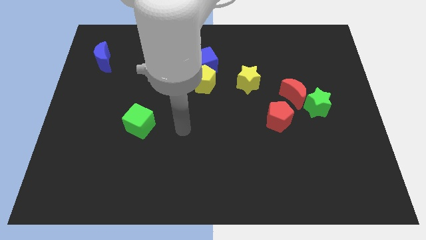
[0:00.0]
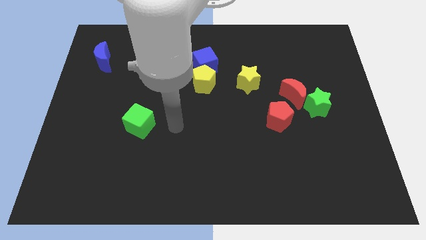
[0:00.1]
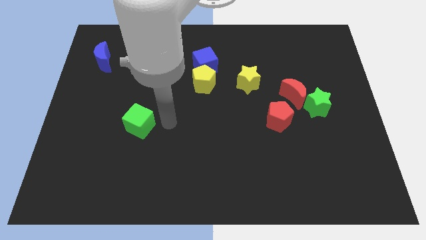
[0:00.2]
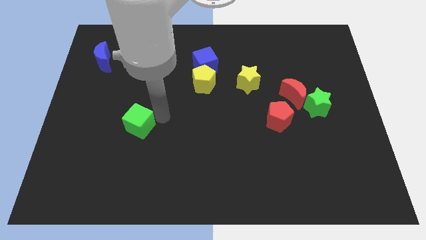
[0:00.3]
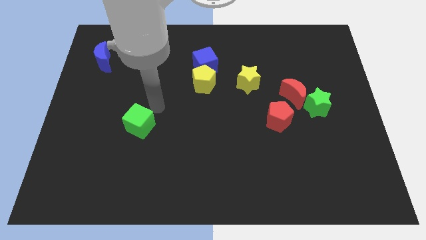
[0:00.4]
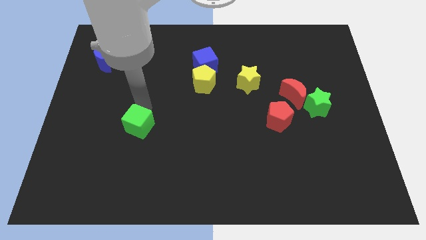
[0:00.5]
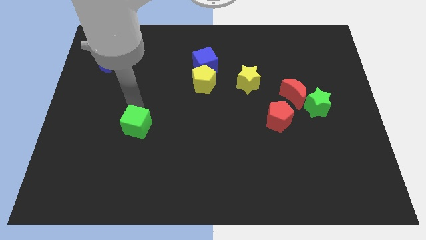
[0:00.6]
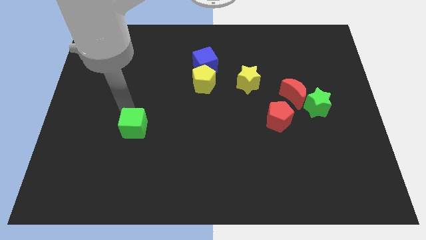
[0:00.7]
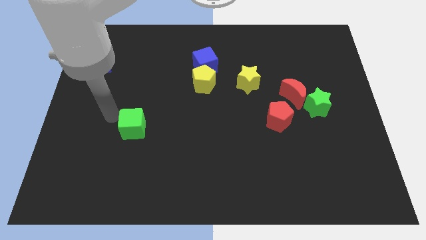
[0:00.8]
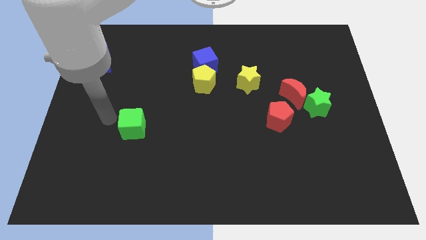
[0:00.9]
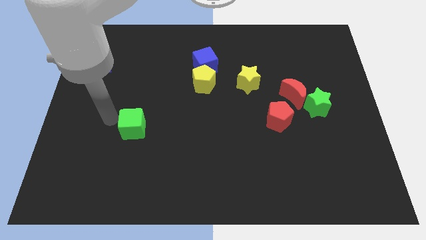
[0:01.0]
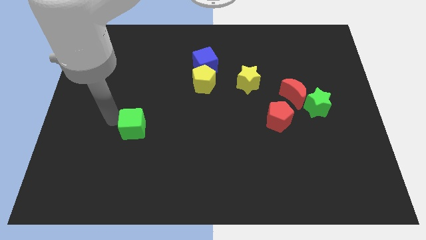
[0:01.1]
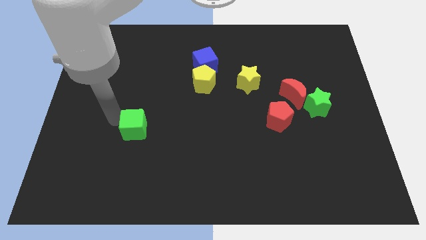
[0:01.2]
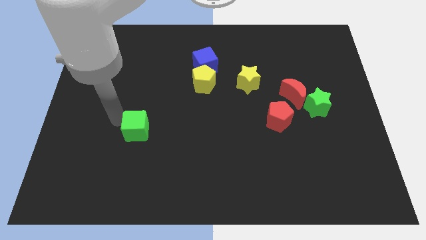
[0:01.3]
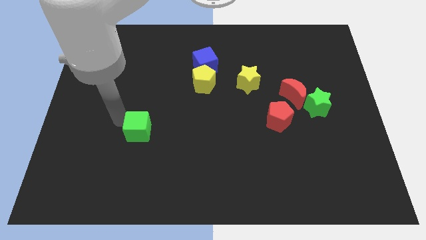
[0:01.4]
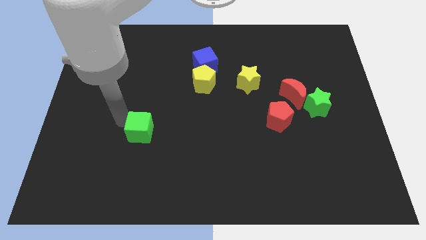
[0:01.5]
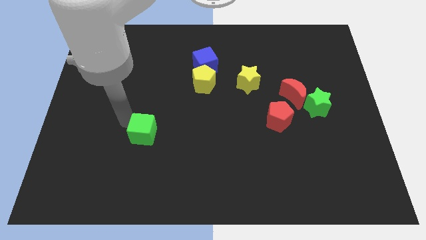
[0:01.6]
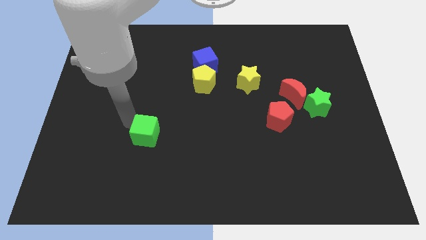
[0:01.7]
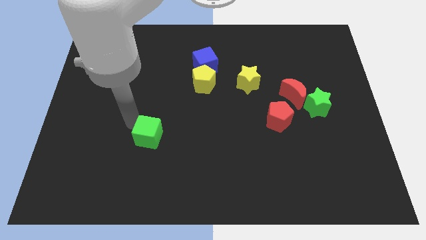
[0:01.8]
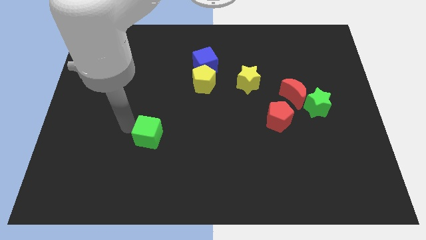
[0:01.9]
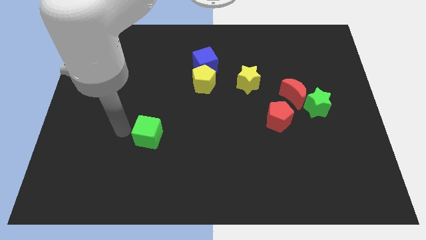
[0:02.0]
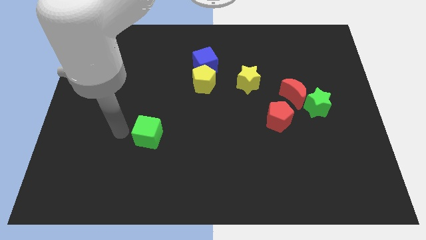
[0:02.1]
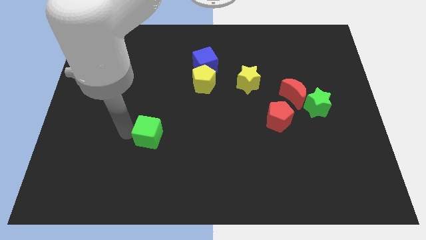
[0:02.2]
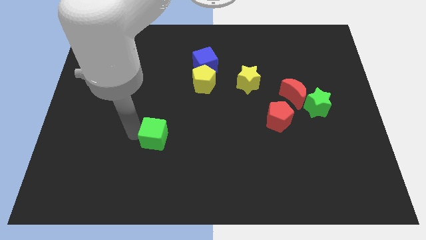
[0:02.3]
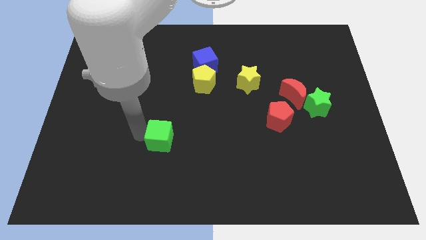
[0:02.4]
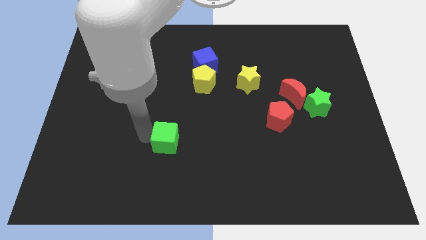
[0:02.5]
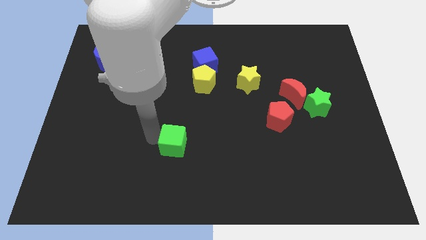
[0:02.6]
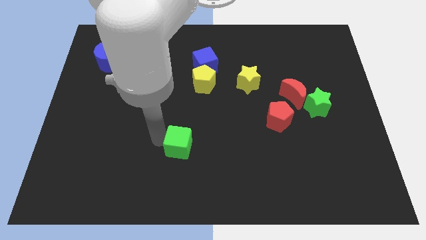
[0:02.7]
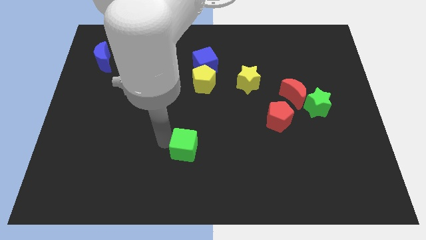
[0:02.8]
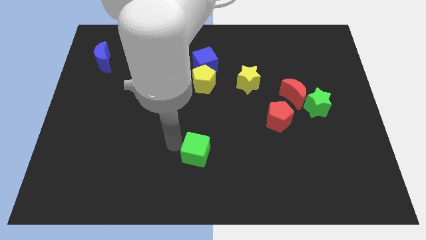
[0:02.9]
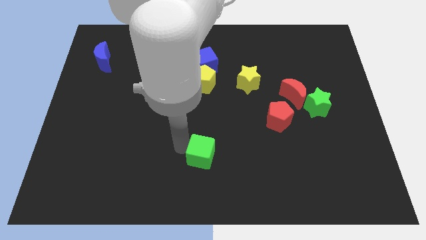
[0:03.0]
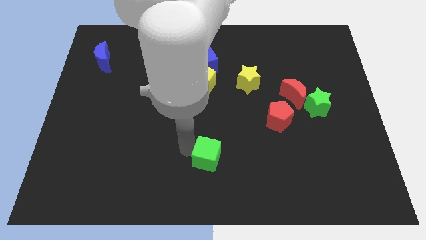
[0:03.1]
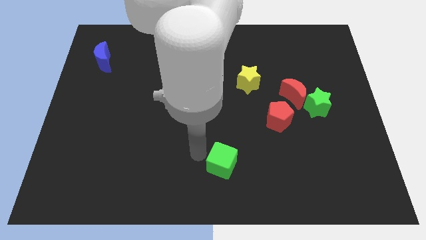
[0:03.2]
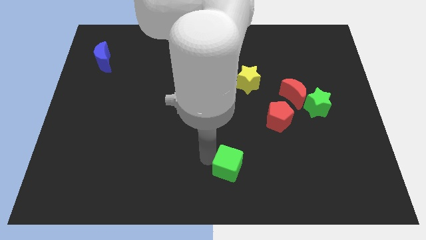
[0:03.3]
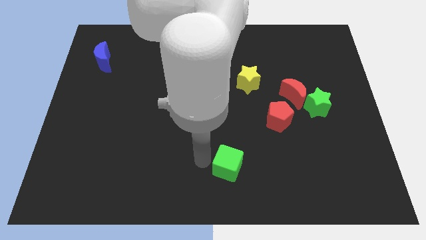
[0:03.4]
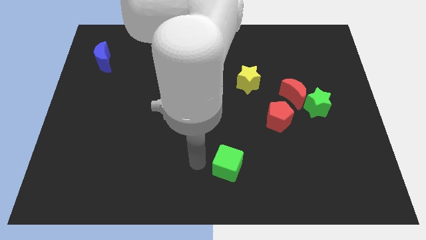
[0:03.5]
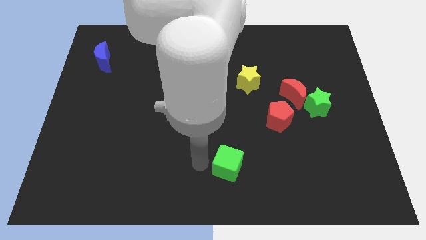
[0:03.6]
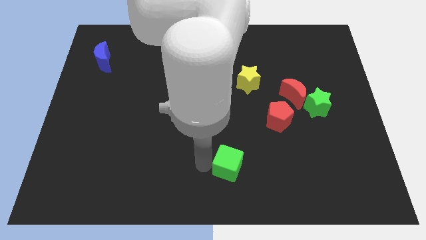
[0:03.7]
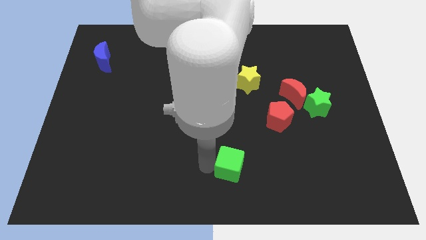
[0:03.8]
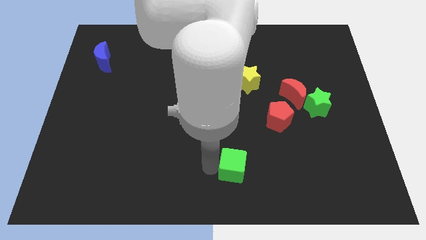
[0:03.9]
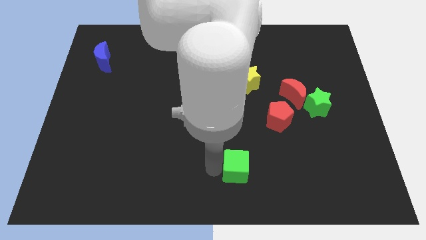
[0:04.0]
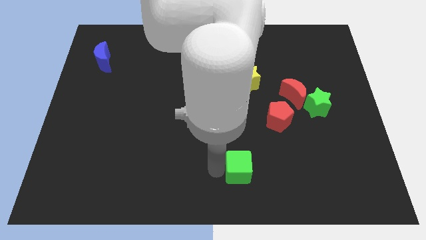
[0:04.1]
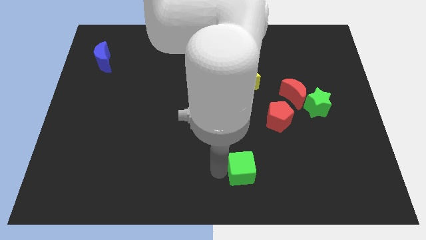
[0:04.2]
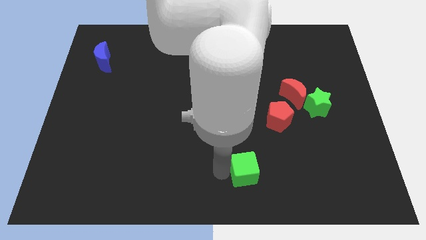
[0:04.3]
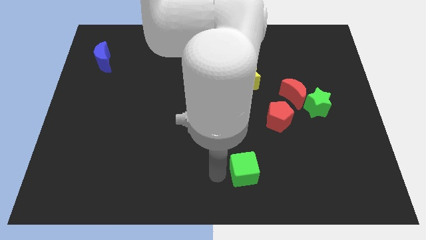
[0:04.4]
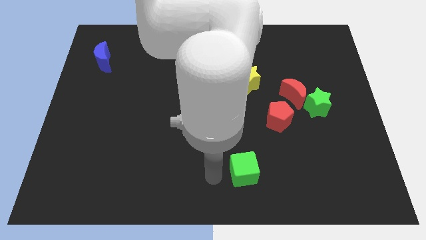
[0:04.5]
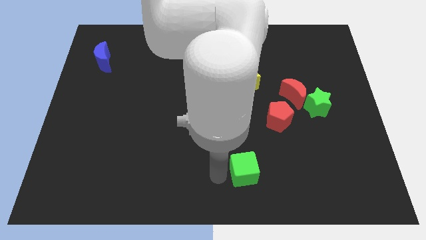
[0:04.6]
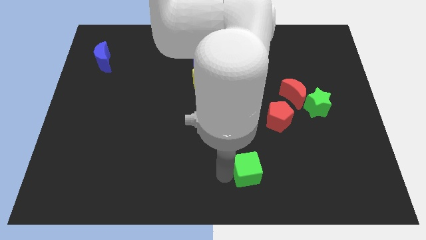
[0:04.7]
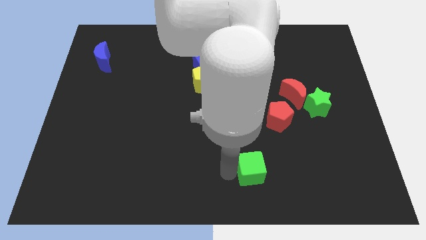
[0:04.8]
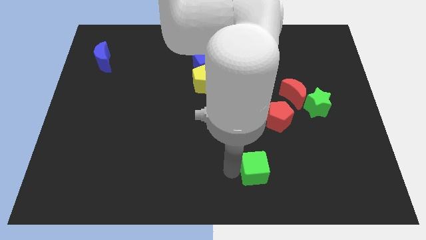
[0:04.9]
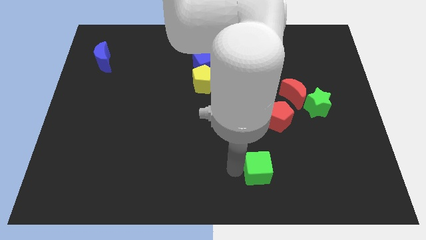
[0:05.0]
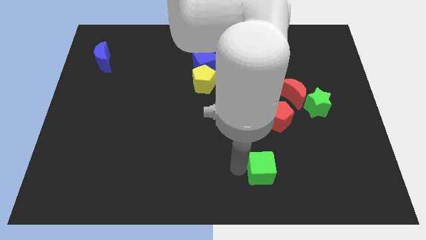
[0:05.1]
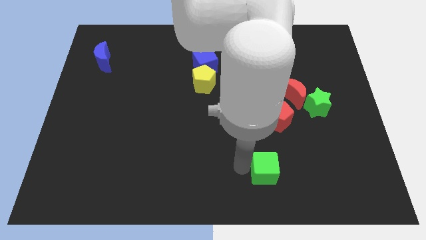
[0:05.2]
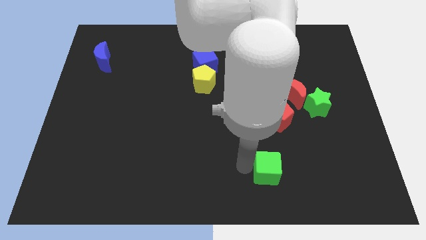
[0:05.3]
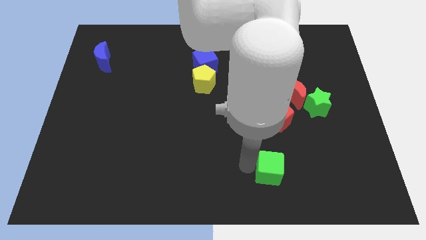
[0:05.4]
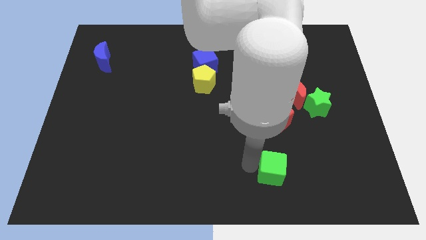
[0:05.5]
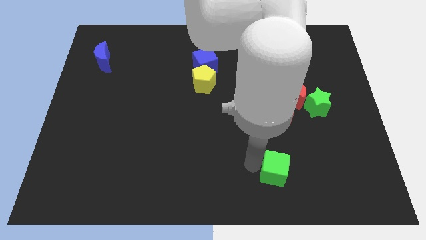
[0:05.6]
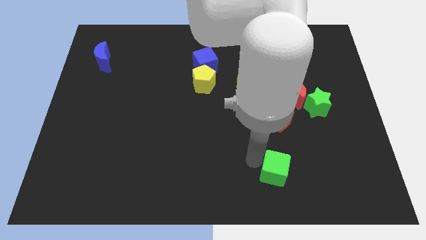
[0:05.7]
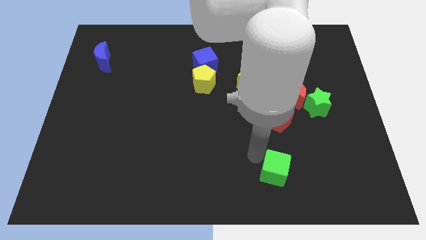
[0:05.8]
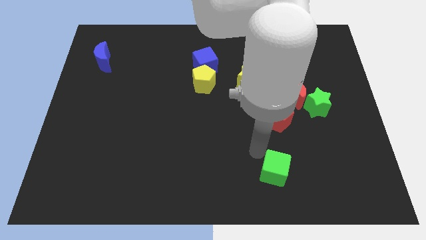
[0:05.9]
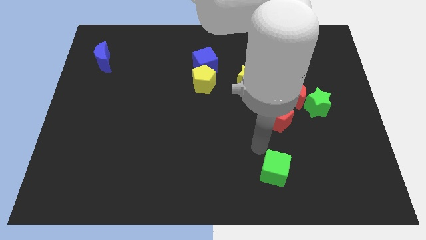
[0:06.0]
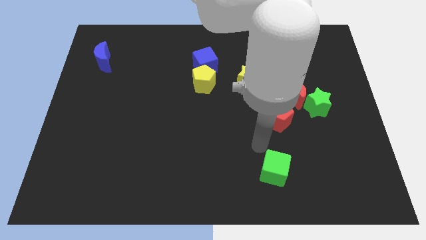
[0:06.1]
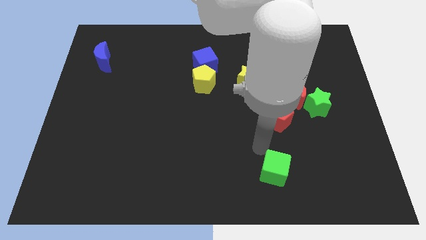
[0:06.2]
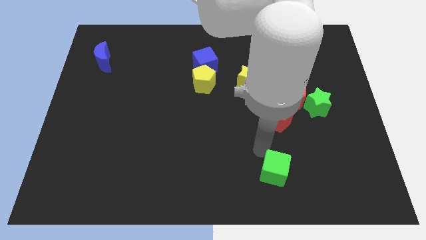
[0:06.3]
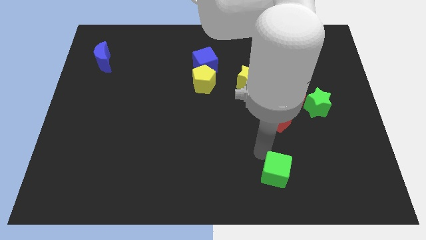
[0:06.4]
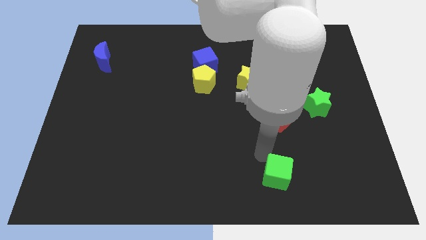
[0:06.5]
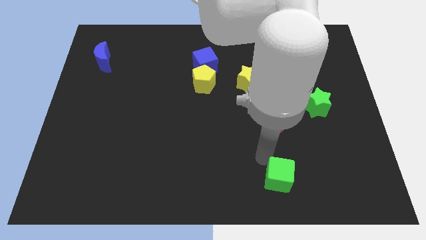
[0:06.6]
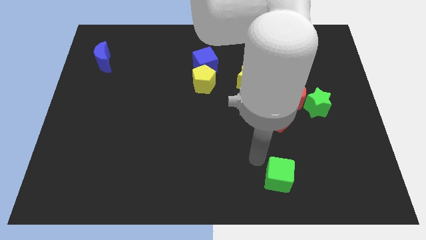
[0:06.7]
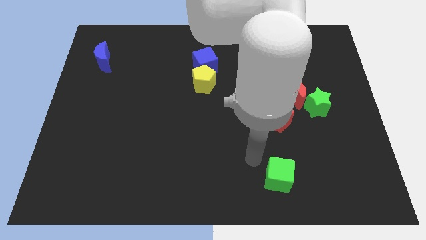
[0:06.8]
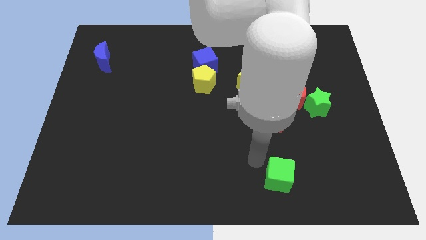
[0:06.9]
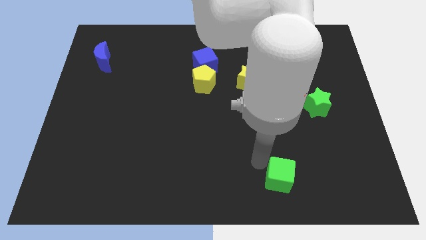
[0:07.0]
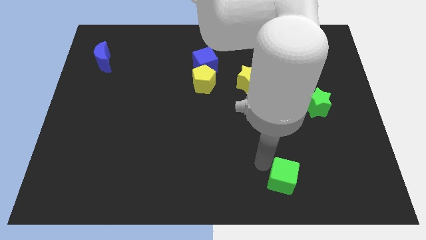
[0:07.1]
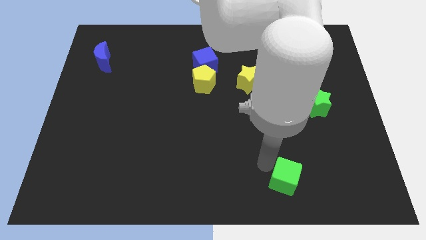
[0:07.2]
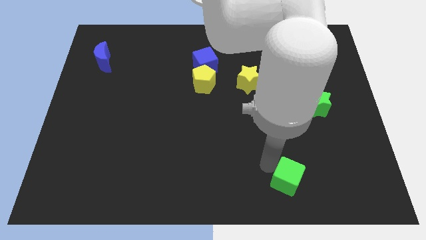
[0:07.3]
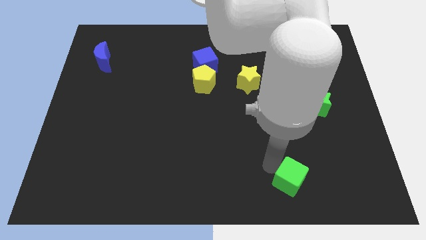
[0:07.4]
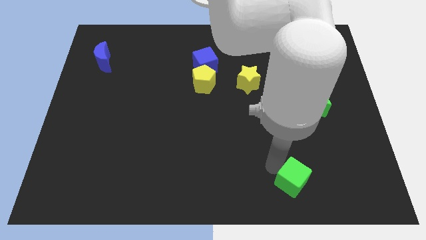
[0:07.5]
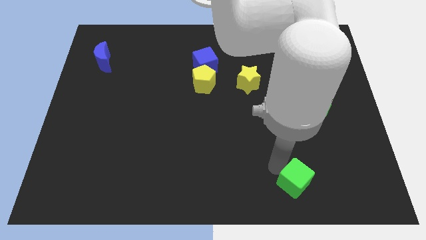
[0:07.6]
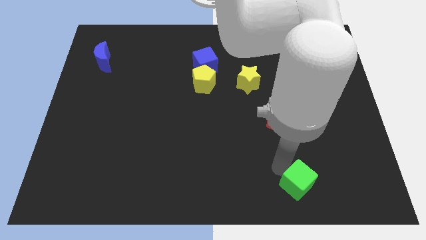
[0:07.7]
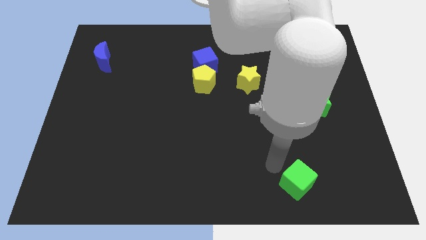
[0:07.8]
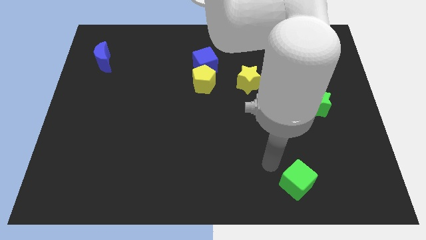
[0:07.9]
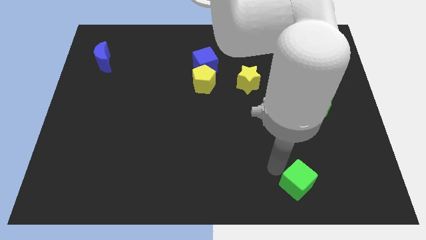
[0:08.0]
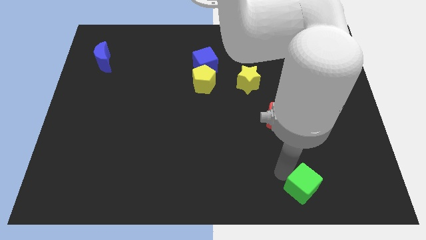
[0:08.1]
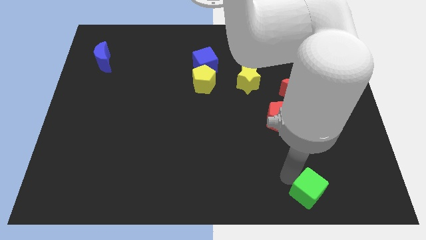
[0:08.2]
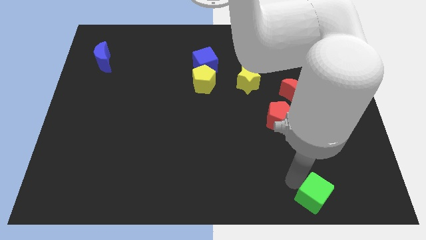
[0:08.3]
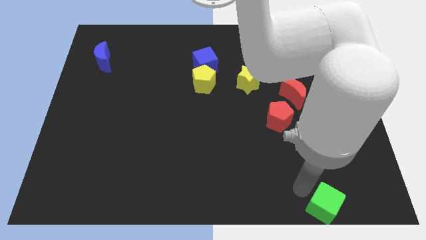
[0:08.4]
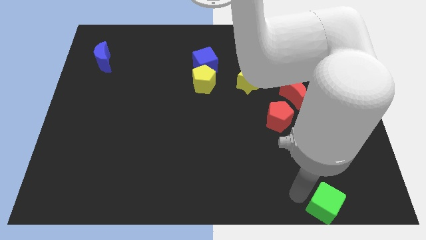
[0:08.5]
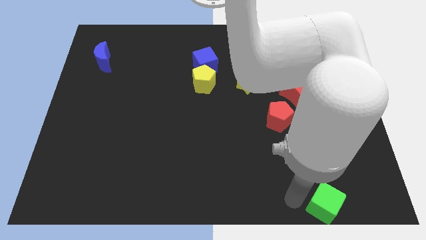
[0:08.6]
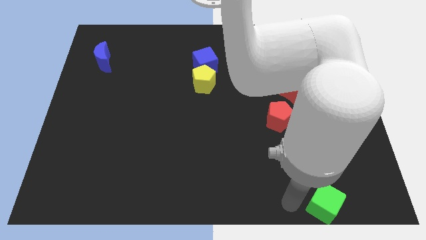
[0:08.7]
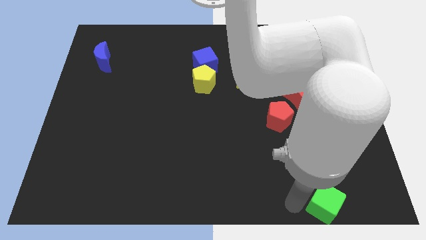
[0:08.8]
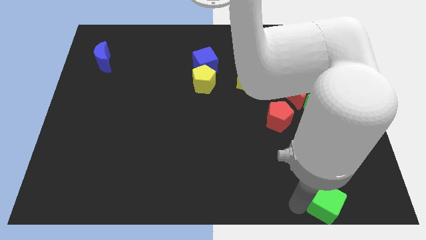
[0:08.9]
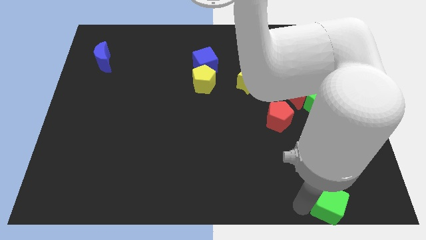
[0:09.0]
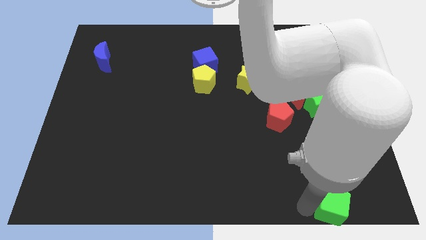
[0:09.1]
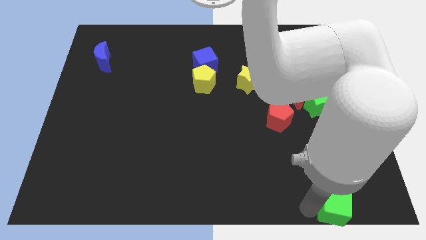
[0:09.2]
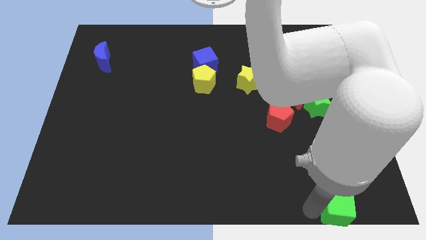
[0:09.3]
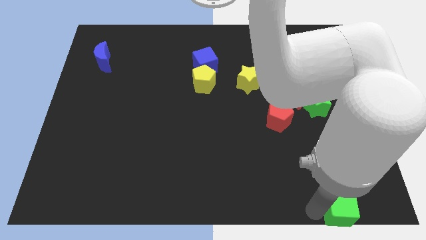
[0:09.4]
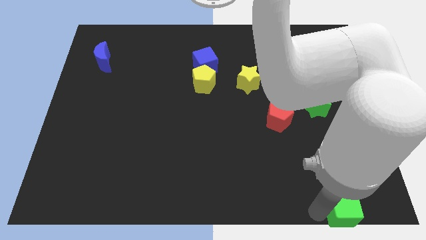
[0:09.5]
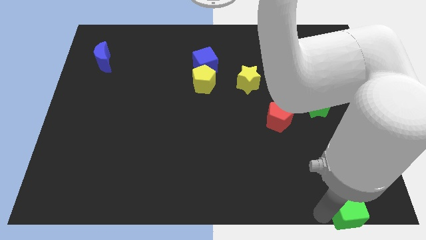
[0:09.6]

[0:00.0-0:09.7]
move the green cube to the bottom right of the board
